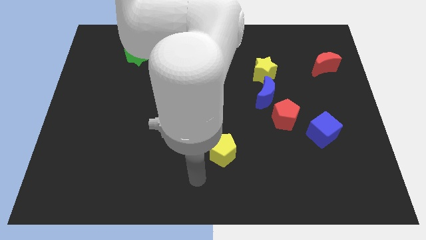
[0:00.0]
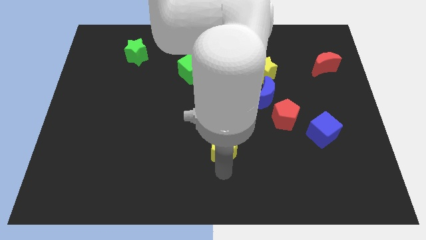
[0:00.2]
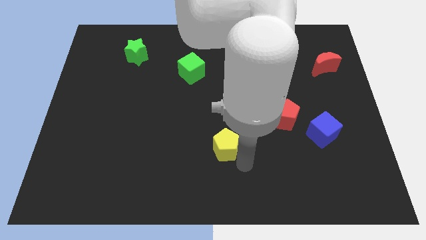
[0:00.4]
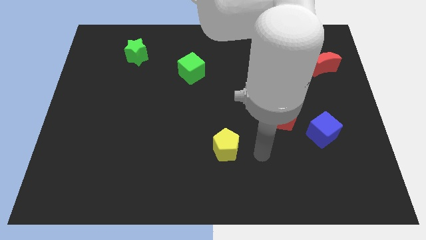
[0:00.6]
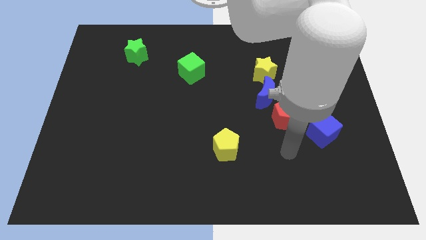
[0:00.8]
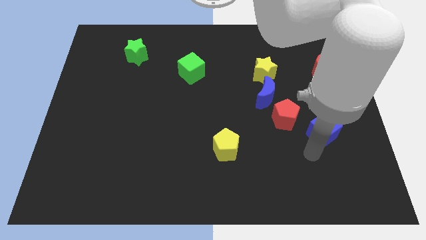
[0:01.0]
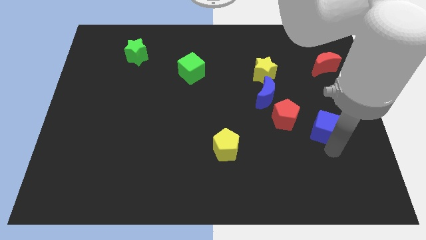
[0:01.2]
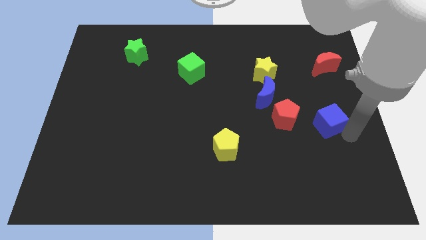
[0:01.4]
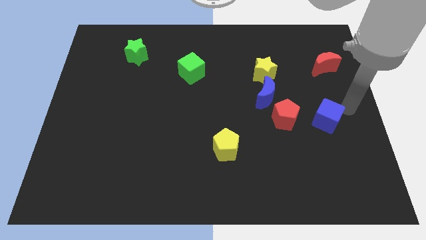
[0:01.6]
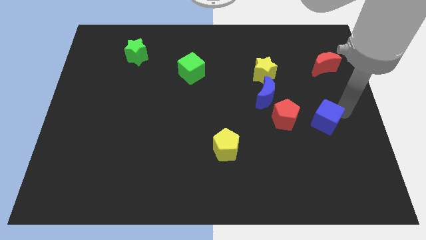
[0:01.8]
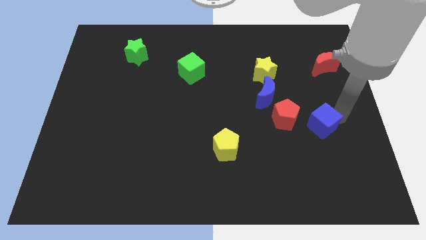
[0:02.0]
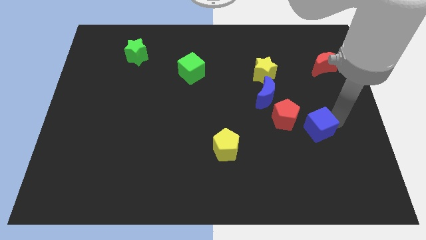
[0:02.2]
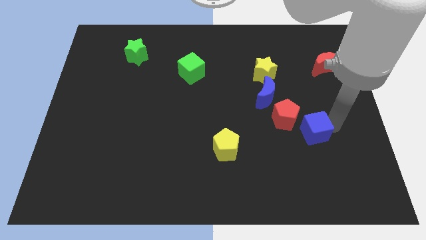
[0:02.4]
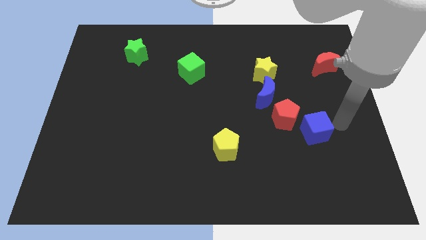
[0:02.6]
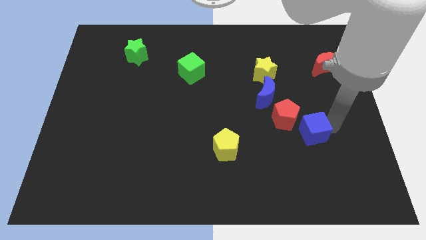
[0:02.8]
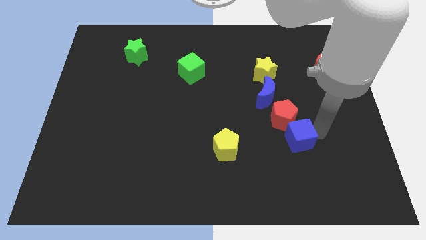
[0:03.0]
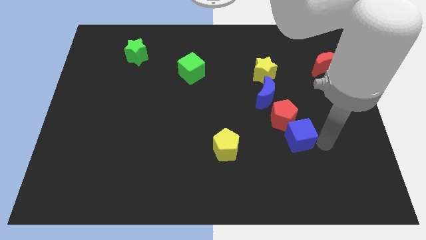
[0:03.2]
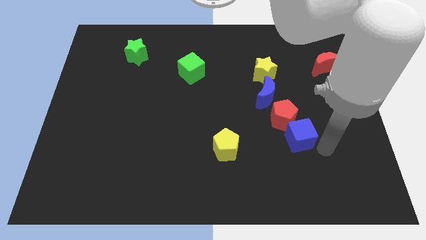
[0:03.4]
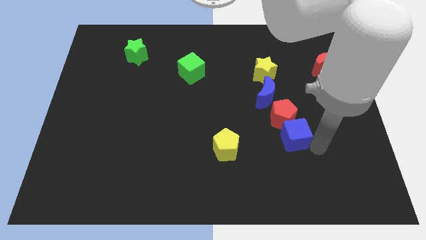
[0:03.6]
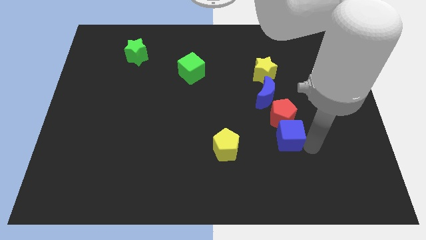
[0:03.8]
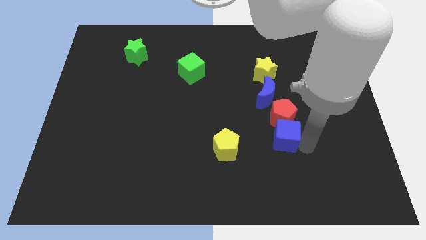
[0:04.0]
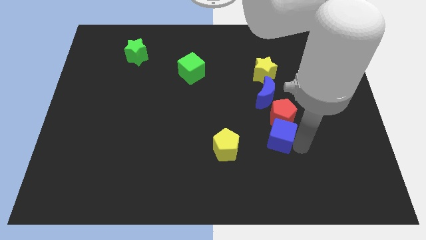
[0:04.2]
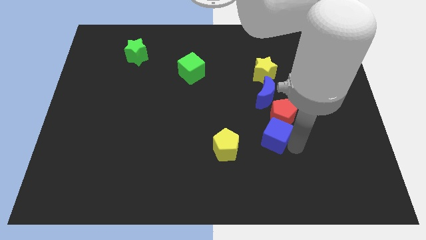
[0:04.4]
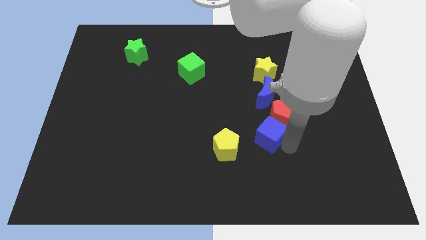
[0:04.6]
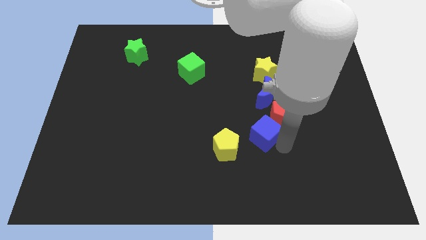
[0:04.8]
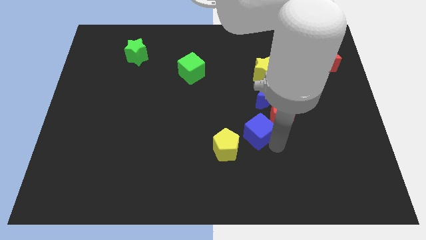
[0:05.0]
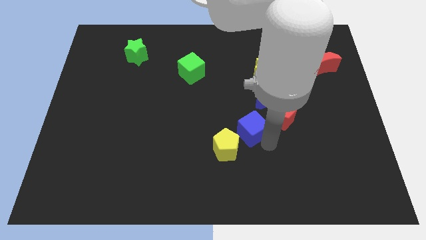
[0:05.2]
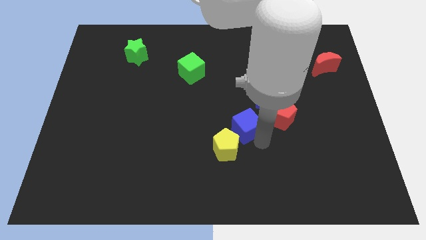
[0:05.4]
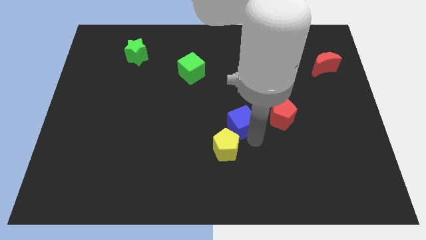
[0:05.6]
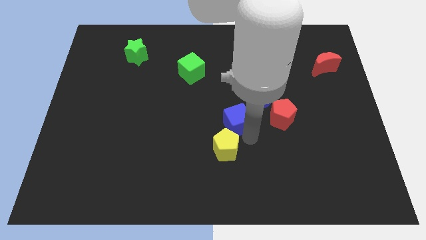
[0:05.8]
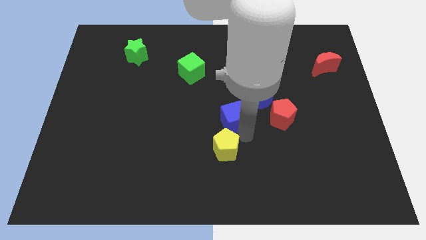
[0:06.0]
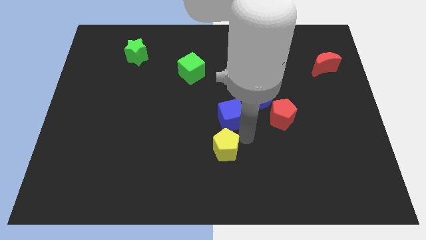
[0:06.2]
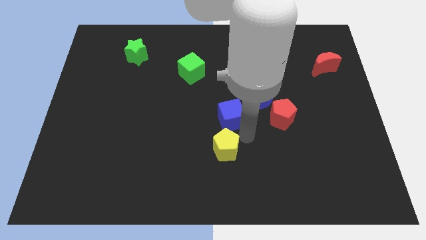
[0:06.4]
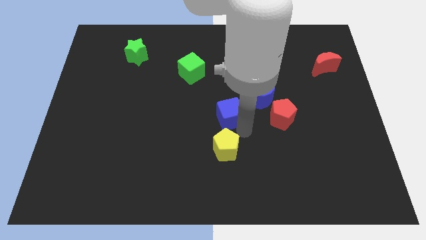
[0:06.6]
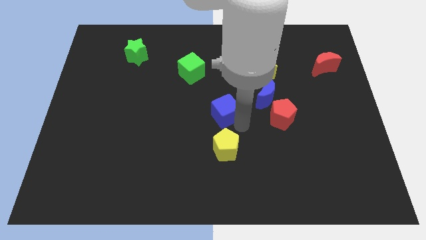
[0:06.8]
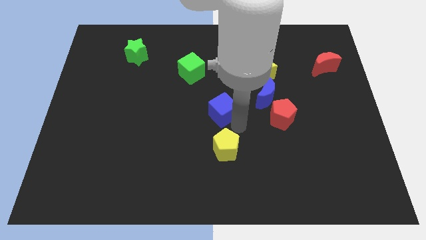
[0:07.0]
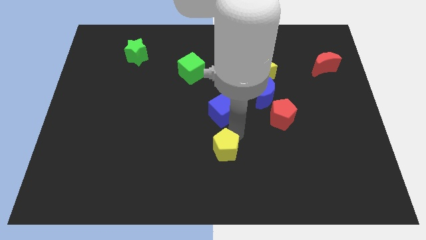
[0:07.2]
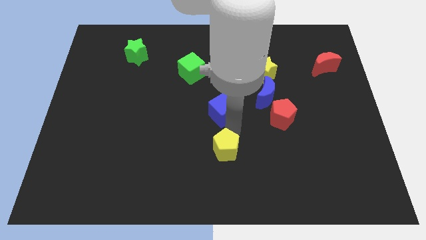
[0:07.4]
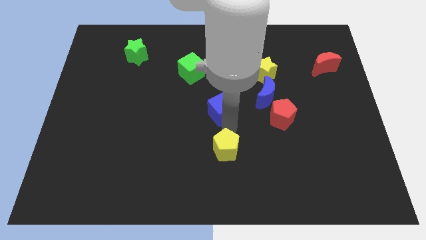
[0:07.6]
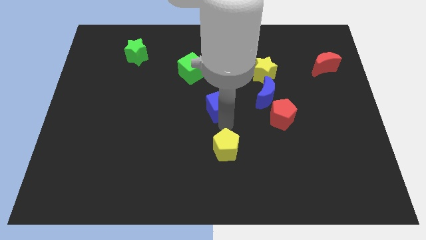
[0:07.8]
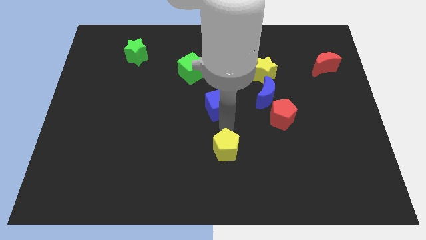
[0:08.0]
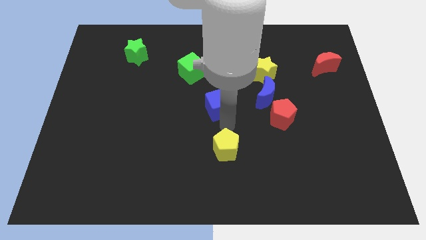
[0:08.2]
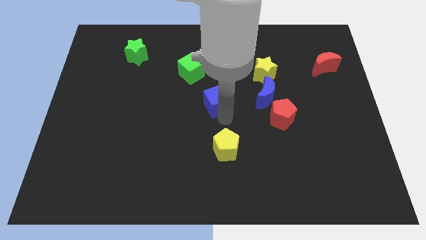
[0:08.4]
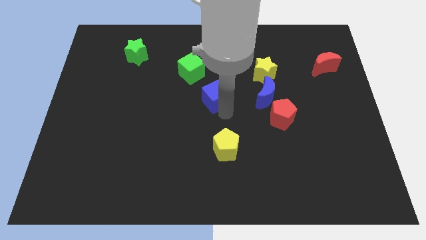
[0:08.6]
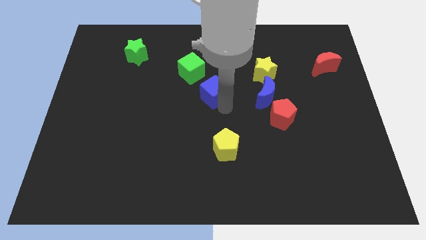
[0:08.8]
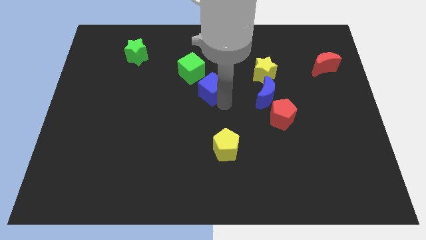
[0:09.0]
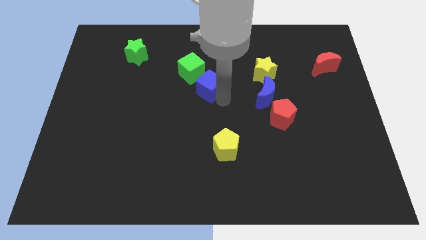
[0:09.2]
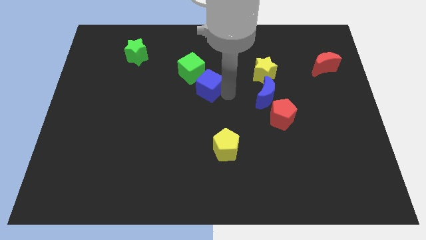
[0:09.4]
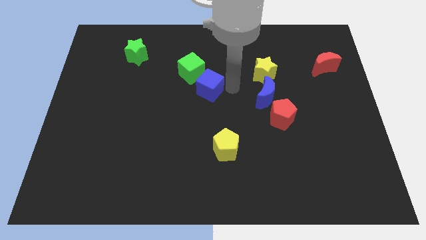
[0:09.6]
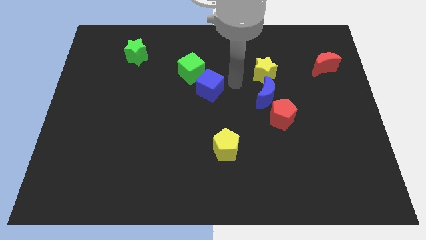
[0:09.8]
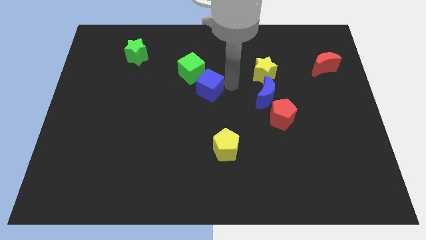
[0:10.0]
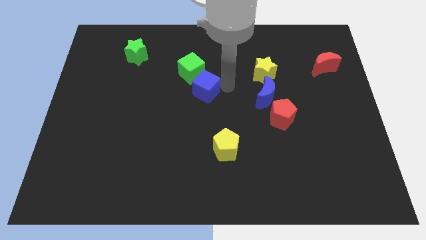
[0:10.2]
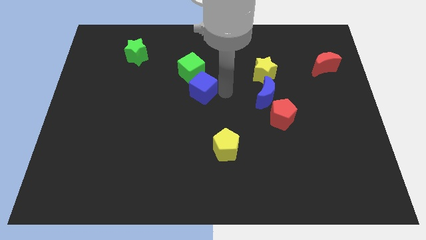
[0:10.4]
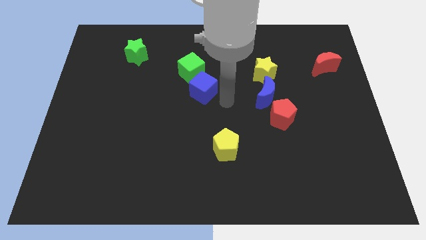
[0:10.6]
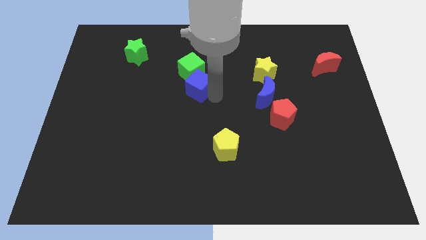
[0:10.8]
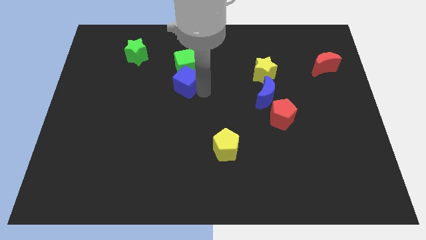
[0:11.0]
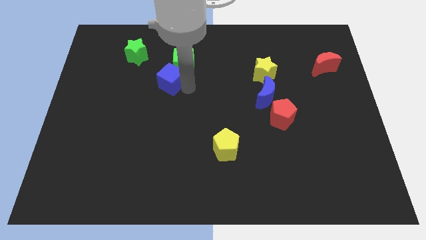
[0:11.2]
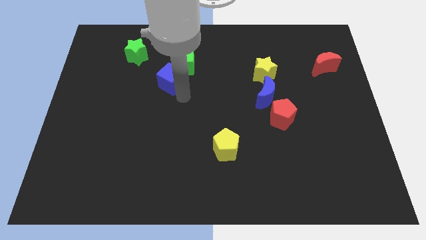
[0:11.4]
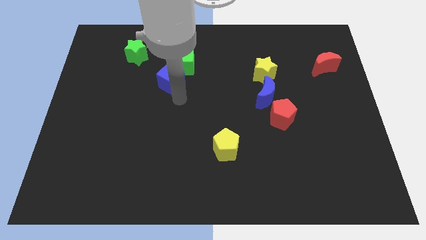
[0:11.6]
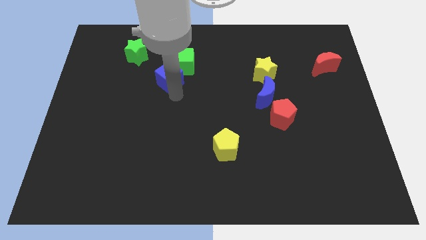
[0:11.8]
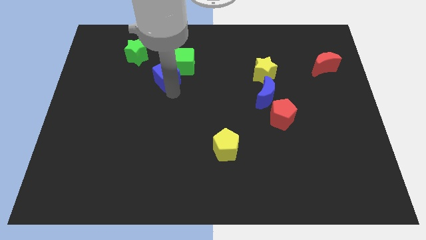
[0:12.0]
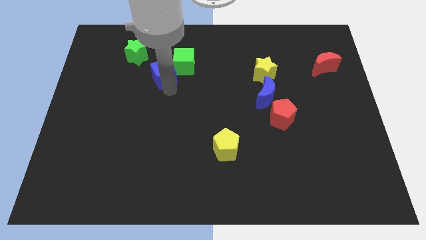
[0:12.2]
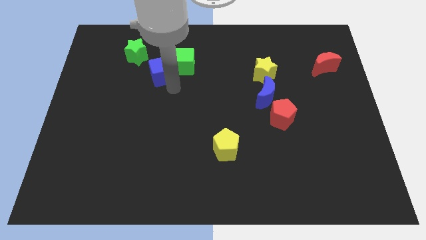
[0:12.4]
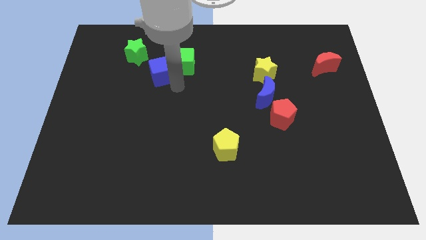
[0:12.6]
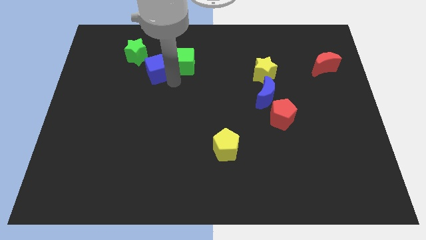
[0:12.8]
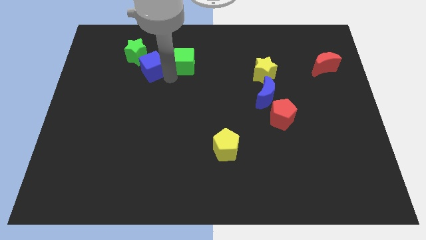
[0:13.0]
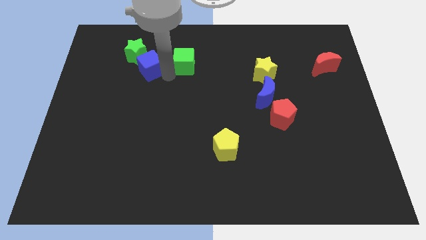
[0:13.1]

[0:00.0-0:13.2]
slide the blue cube towards the green star

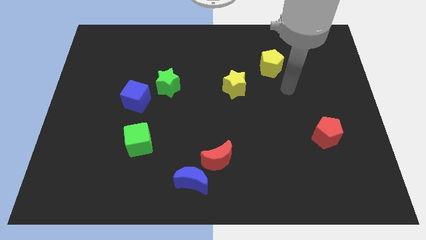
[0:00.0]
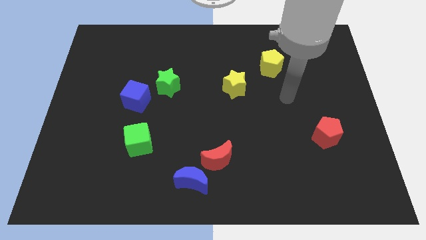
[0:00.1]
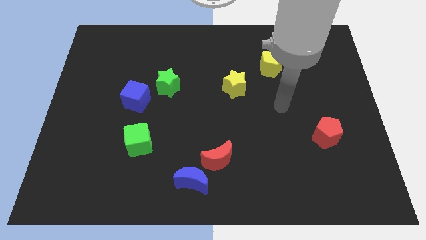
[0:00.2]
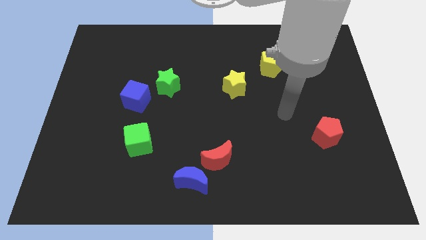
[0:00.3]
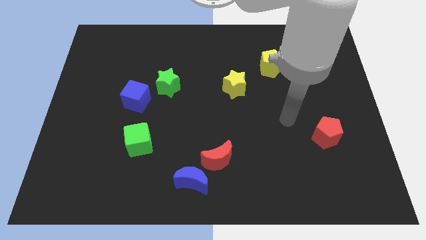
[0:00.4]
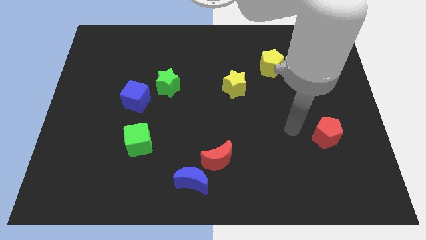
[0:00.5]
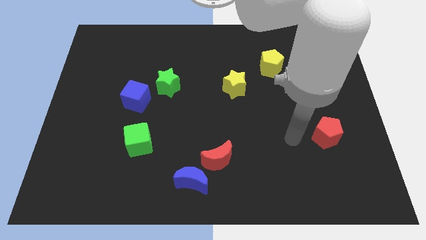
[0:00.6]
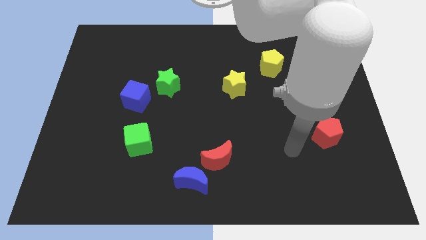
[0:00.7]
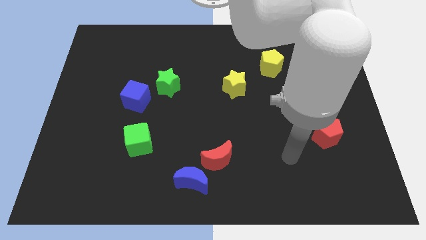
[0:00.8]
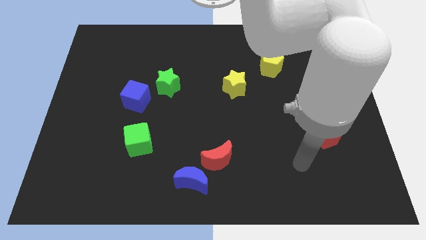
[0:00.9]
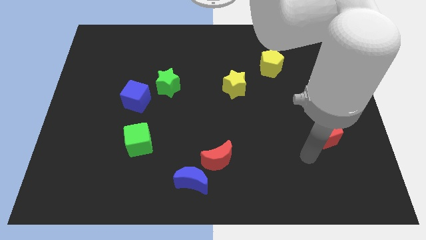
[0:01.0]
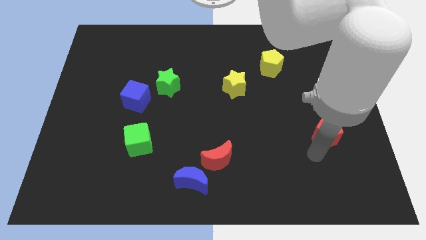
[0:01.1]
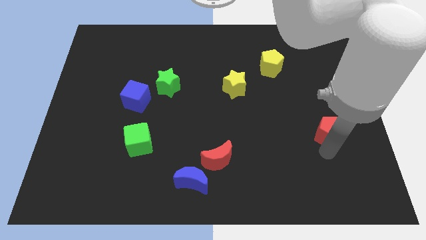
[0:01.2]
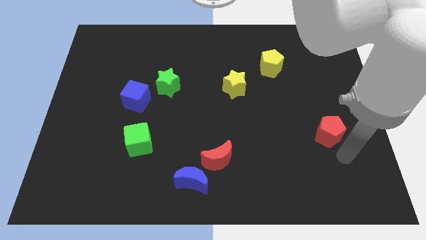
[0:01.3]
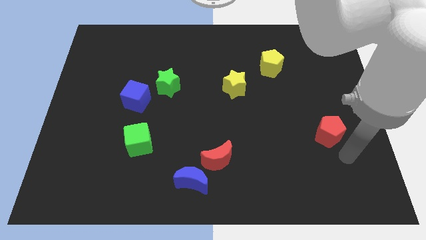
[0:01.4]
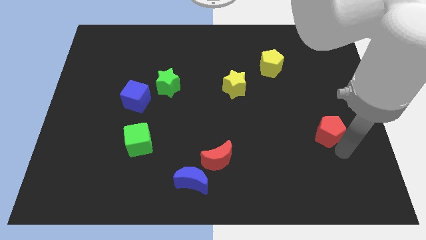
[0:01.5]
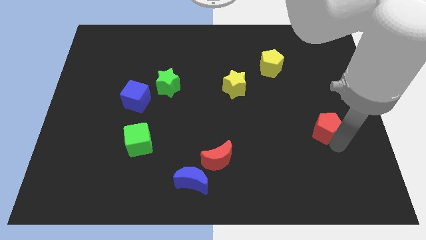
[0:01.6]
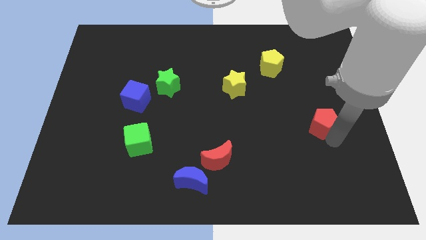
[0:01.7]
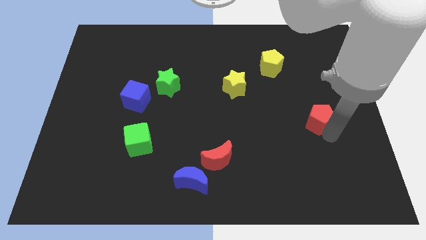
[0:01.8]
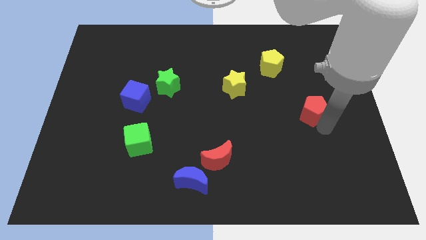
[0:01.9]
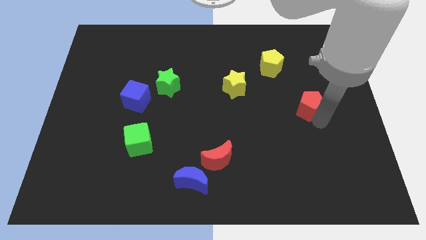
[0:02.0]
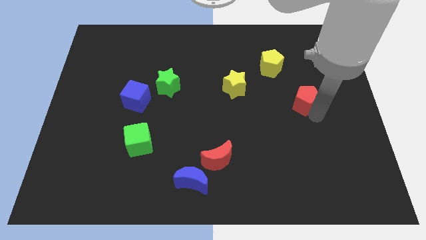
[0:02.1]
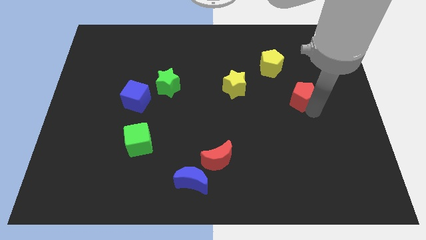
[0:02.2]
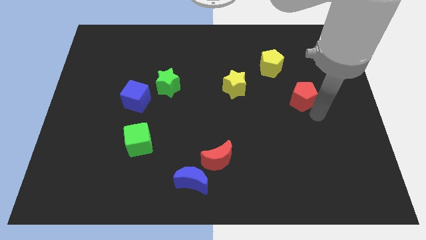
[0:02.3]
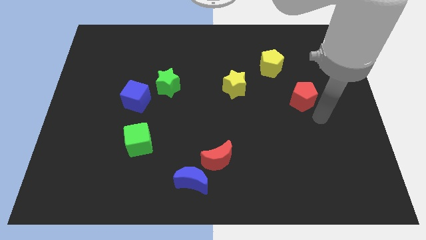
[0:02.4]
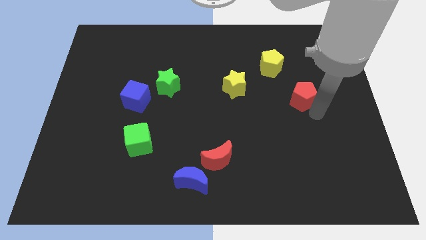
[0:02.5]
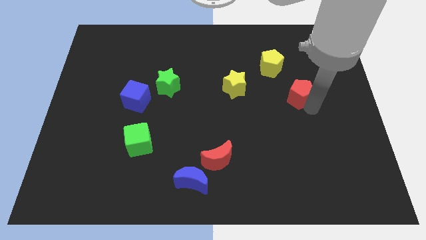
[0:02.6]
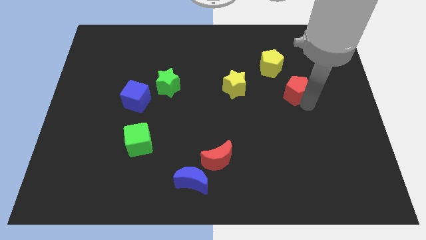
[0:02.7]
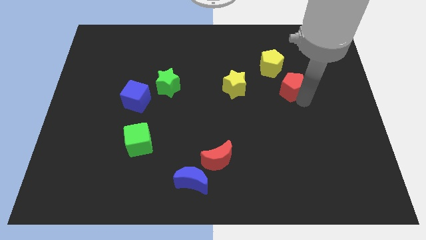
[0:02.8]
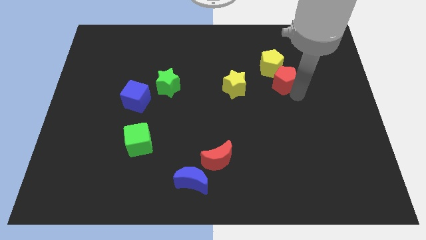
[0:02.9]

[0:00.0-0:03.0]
move the red pentagon close to the yellow pentagon
